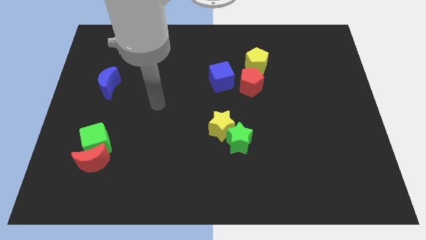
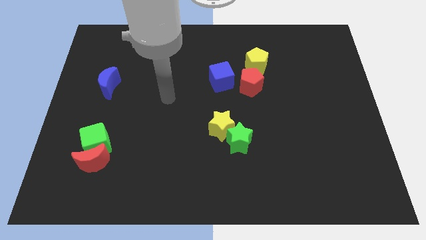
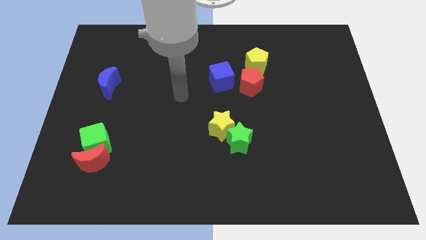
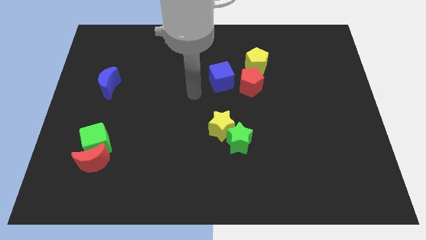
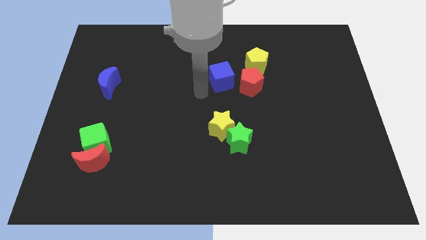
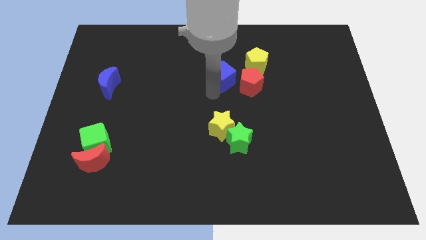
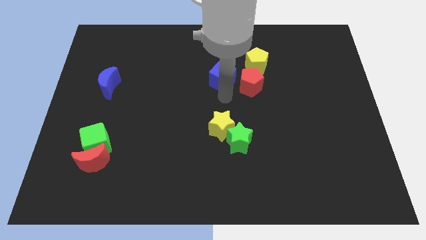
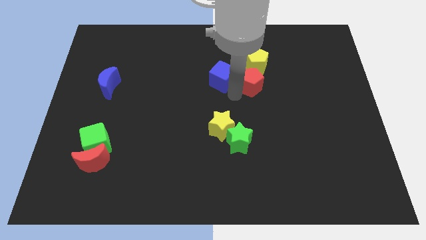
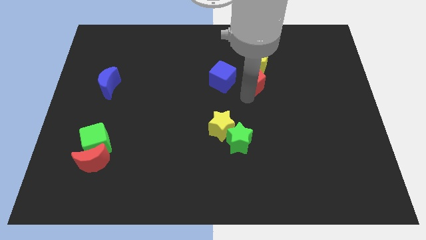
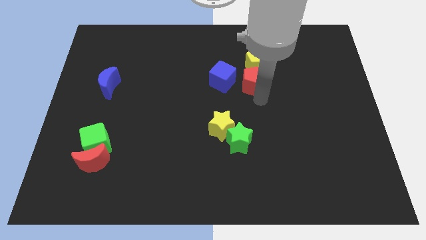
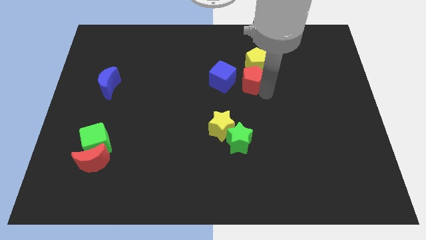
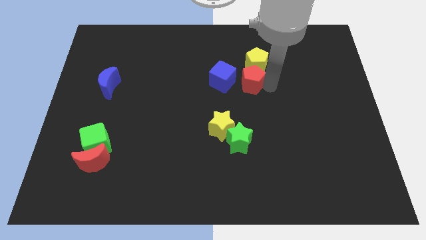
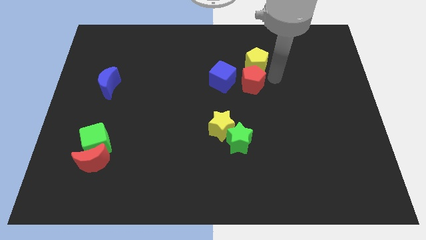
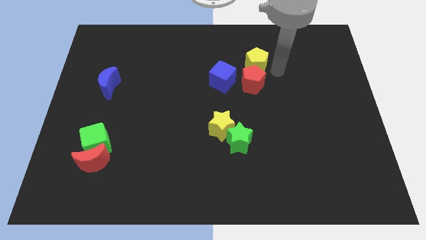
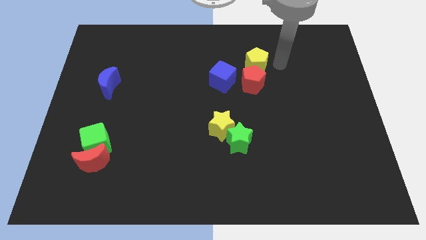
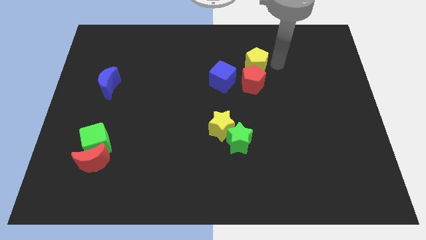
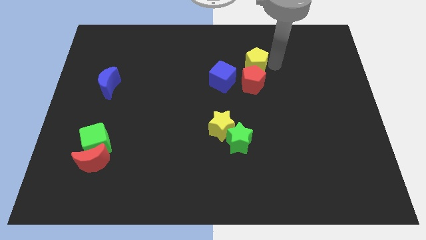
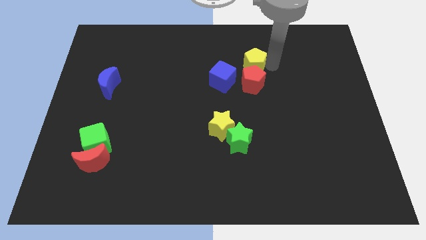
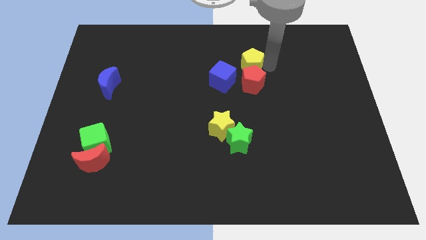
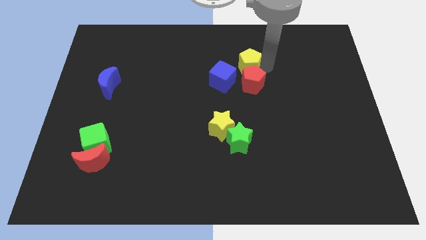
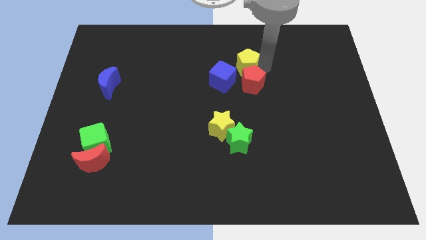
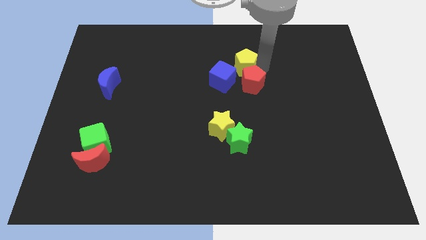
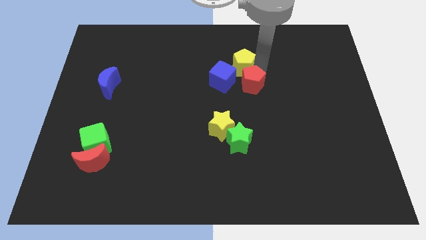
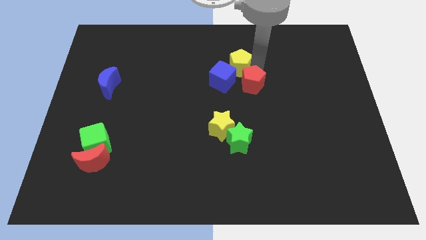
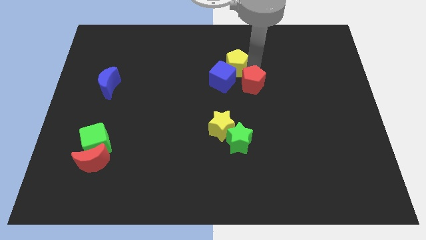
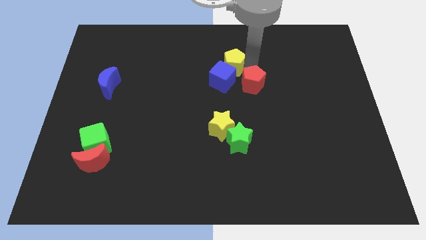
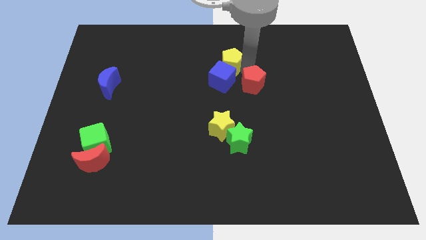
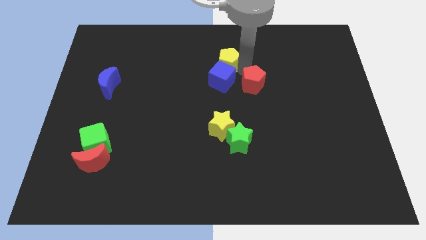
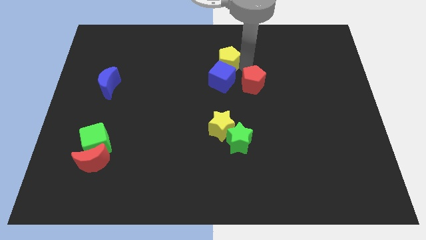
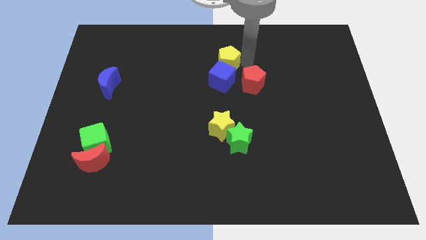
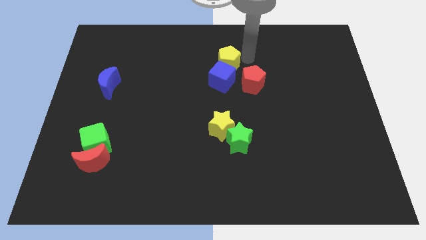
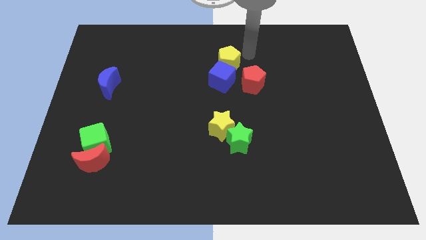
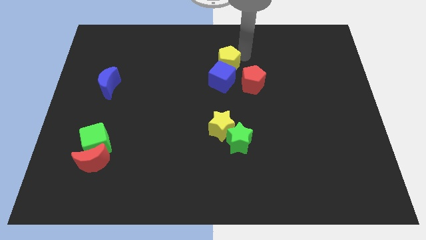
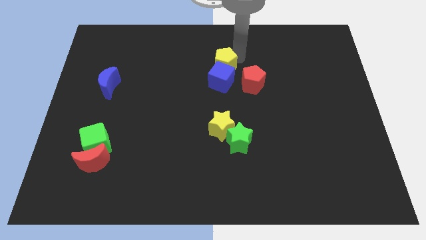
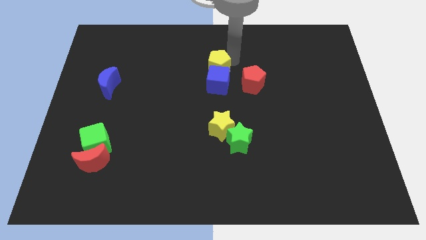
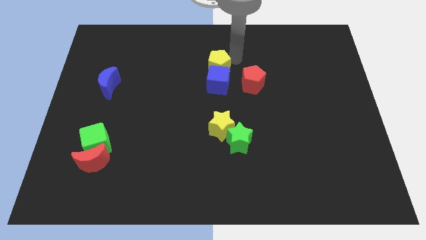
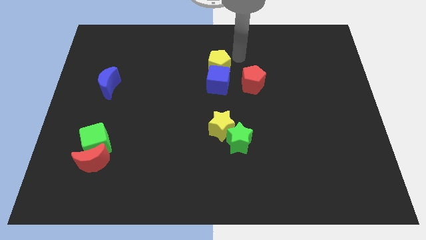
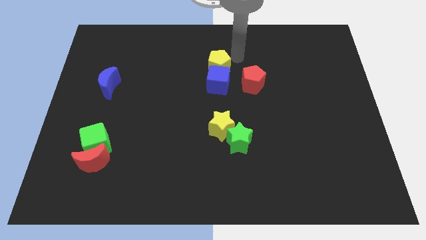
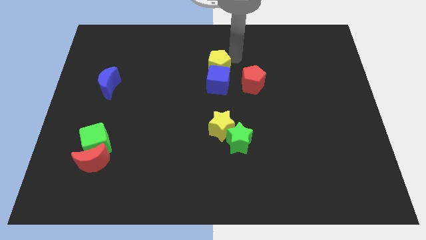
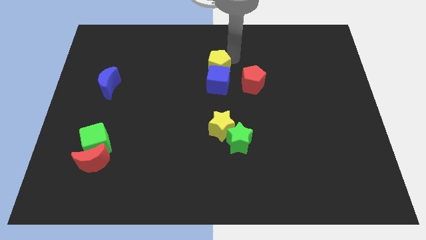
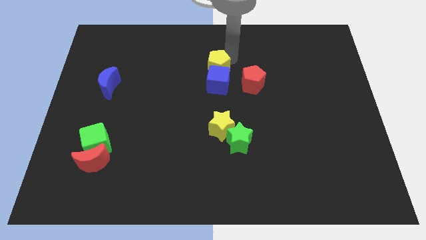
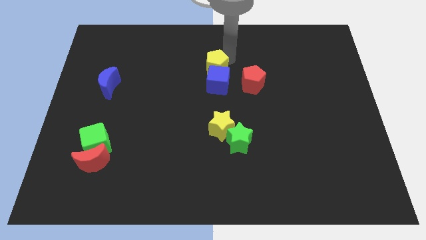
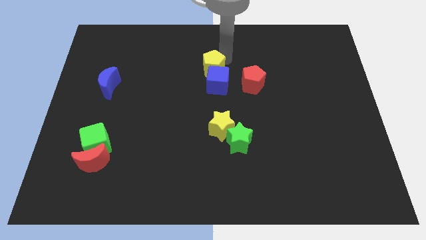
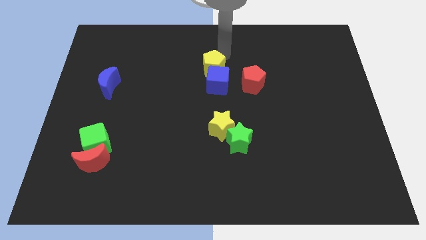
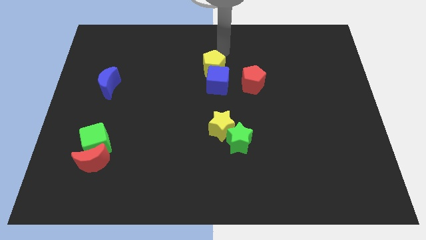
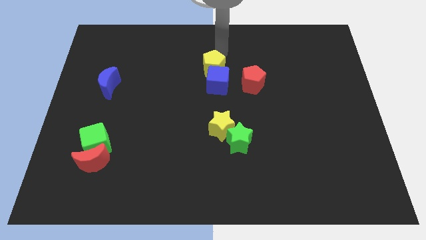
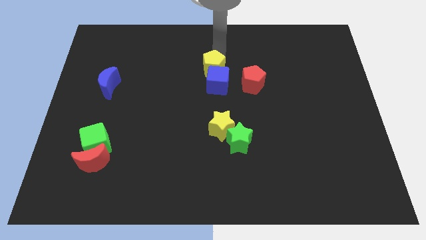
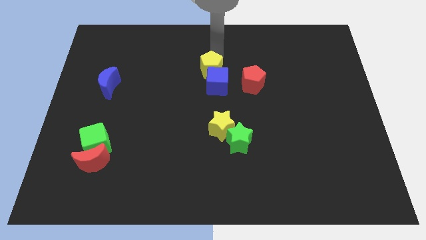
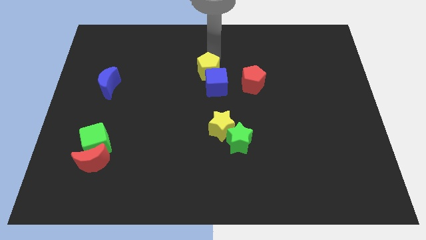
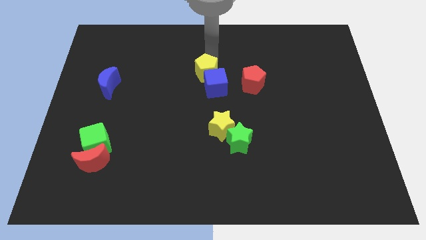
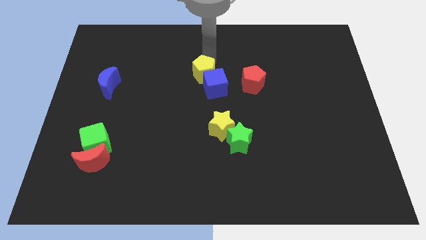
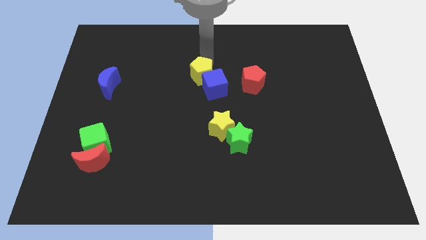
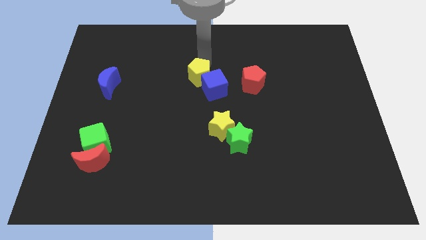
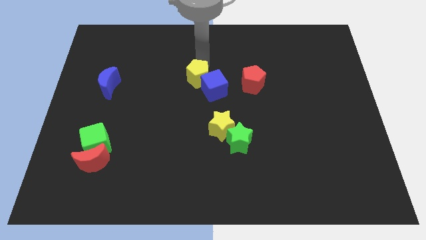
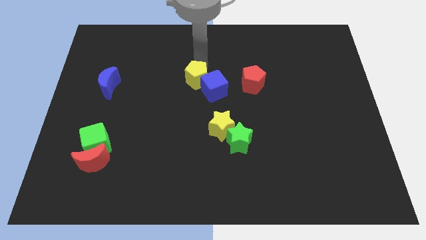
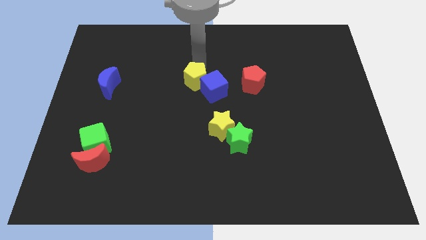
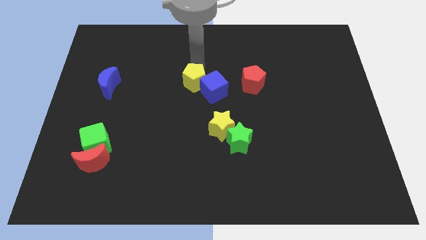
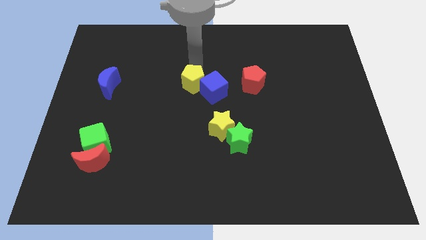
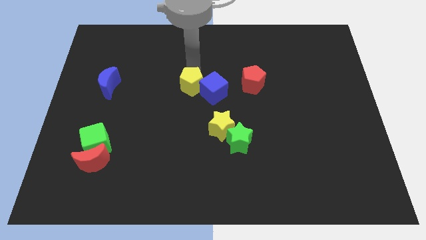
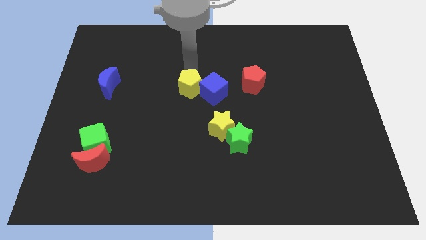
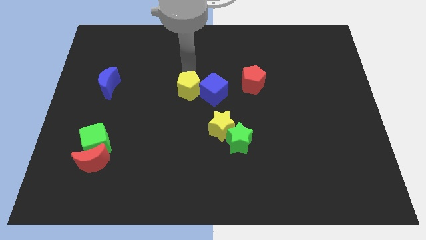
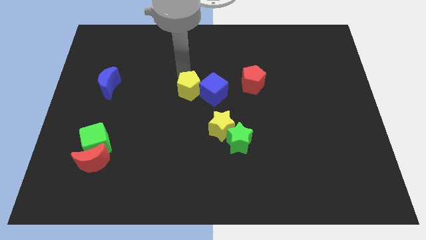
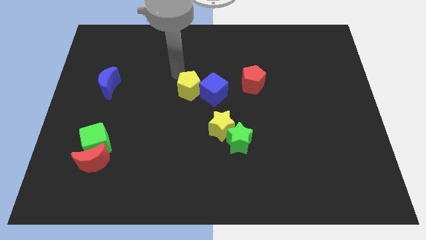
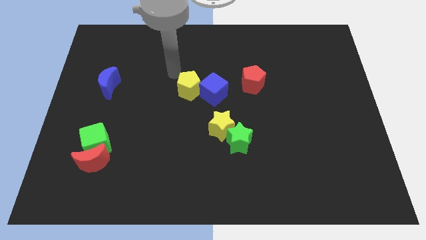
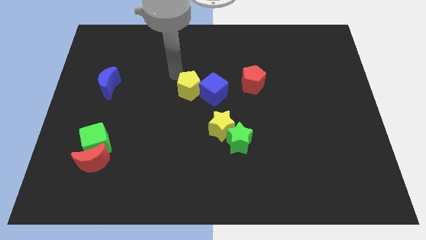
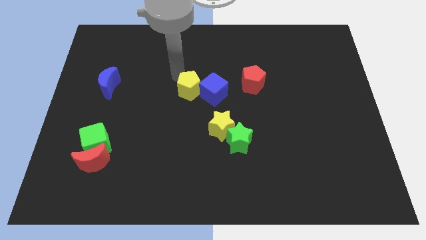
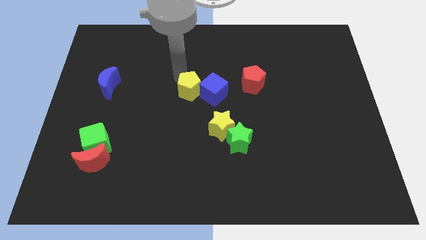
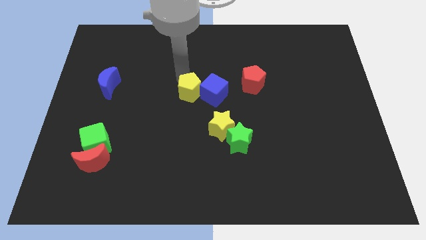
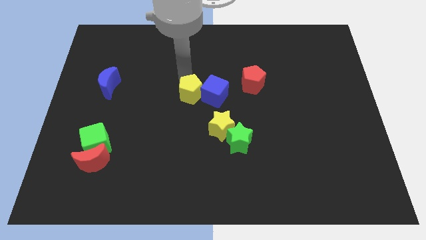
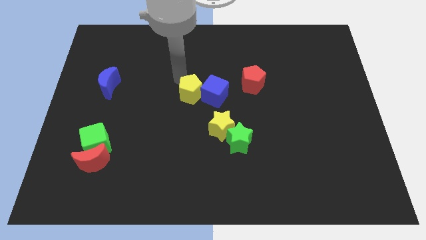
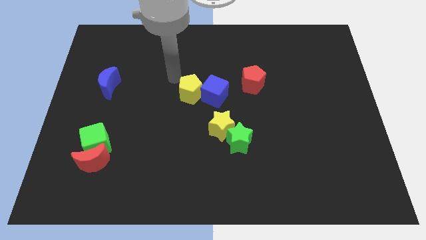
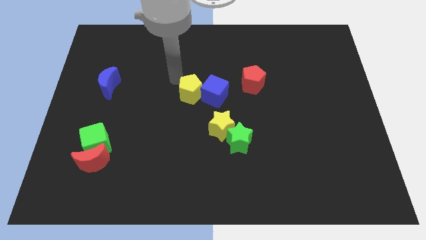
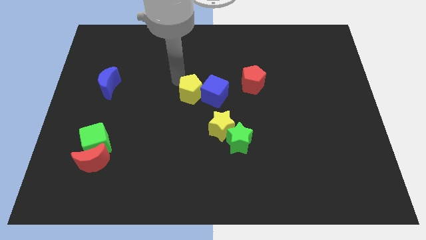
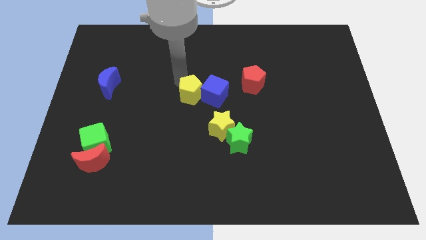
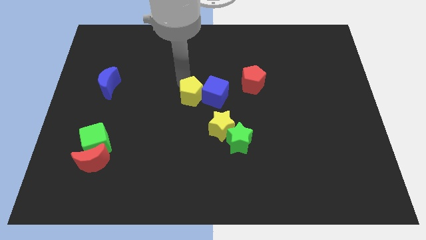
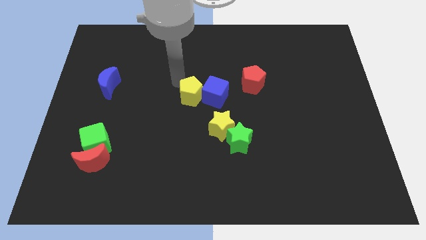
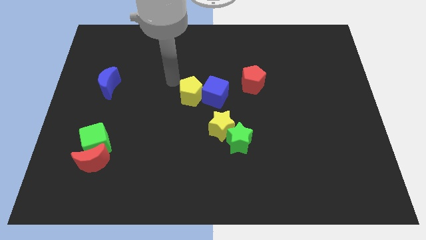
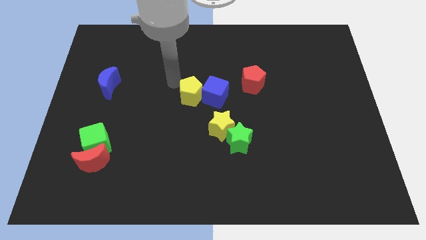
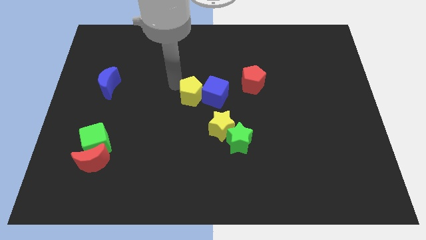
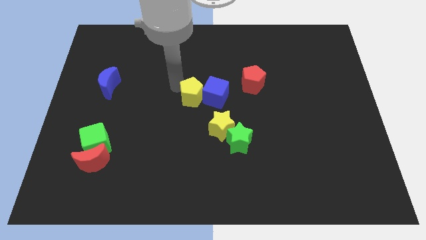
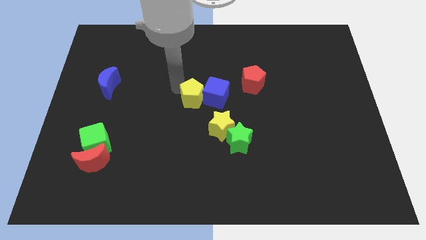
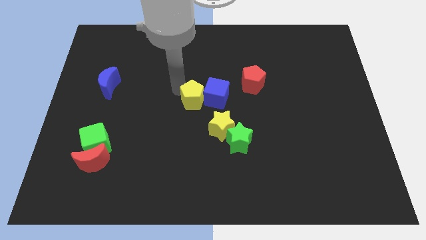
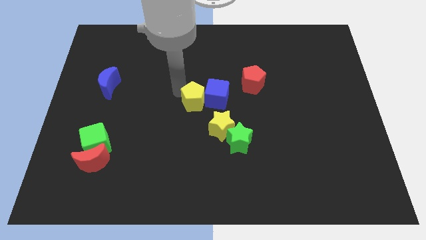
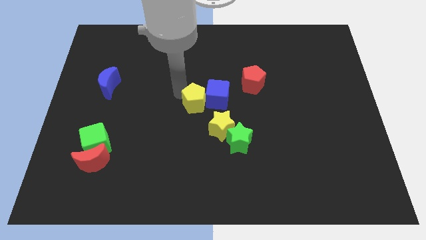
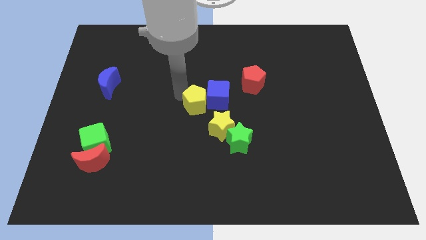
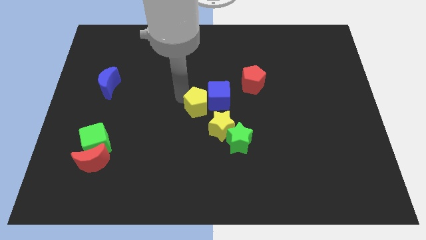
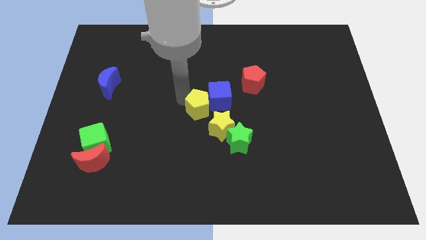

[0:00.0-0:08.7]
move the yellow pentagon to the top left side of the green star
